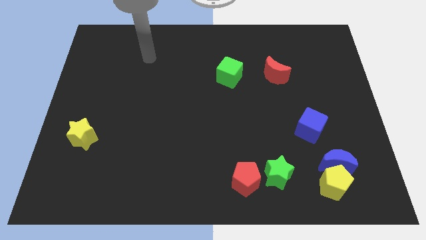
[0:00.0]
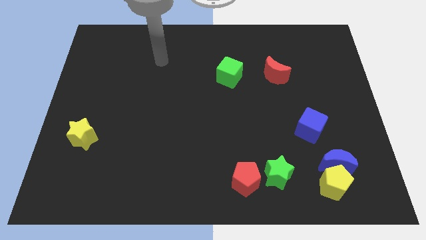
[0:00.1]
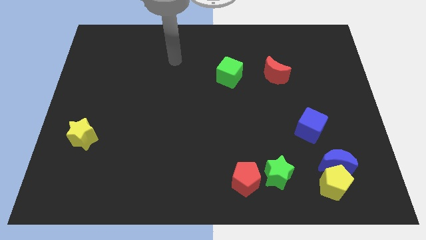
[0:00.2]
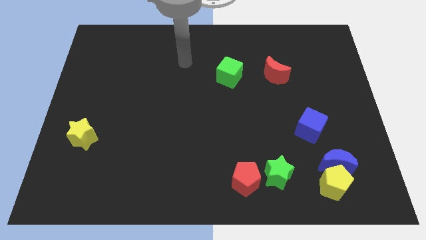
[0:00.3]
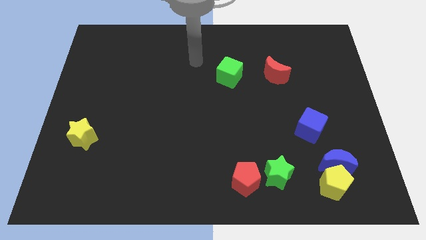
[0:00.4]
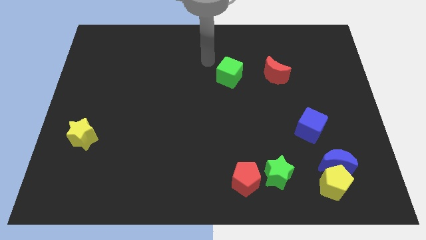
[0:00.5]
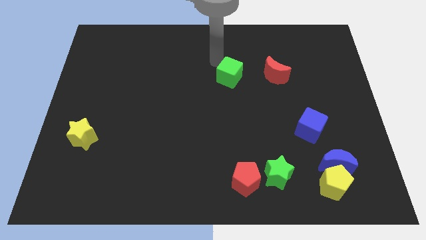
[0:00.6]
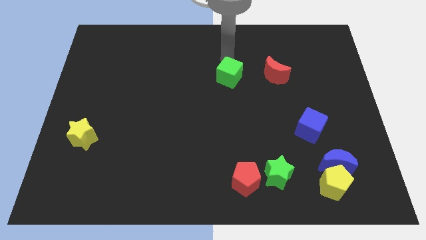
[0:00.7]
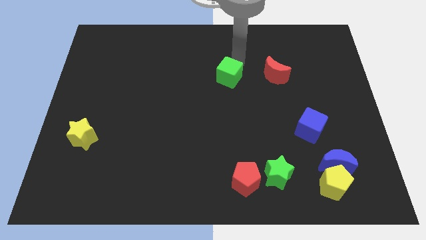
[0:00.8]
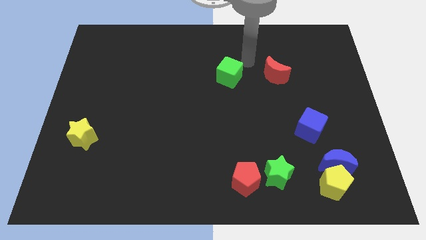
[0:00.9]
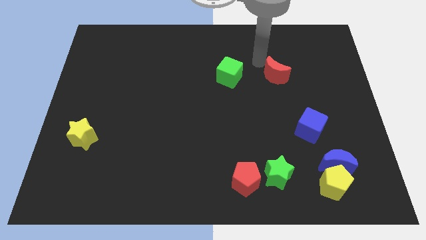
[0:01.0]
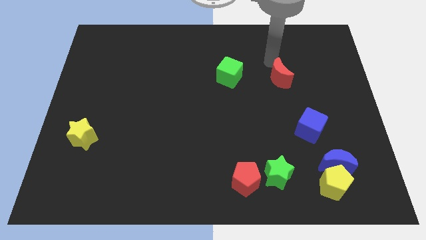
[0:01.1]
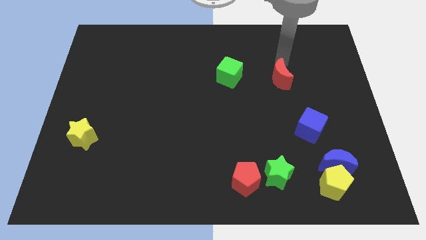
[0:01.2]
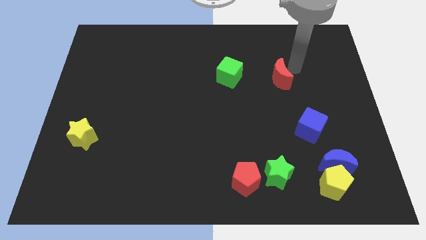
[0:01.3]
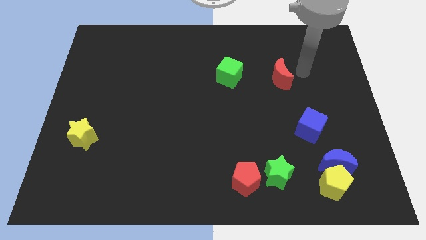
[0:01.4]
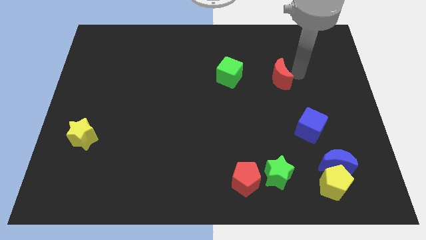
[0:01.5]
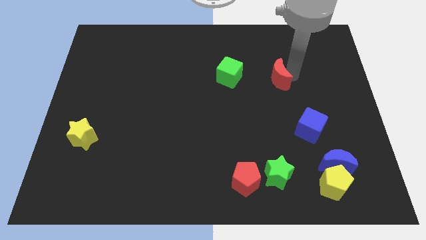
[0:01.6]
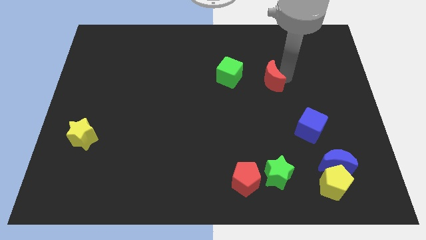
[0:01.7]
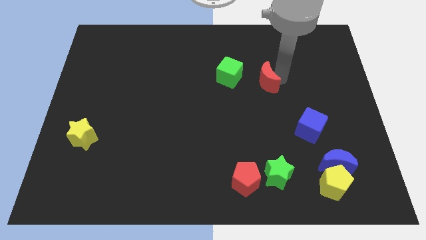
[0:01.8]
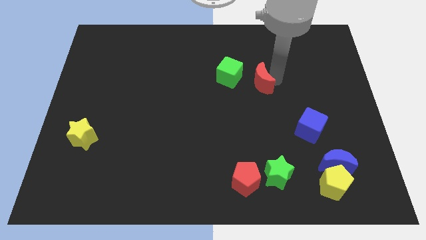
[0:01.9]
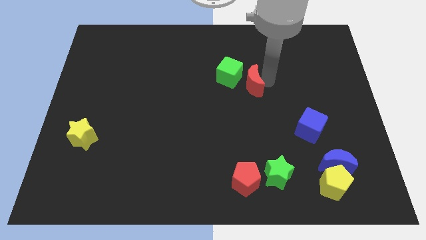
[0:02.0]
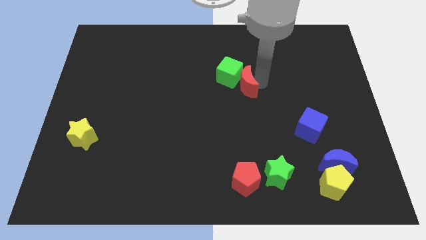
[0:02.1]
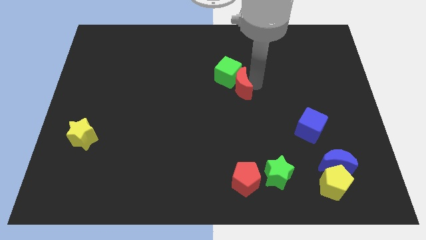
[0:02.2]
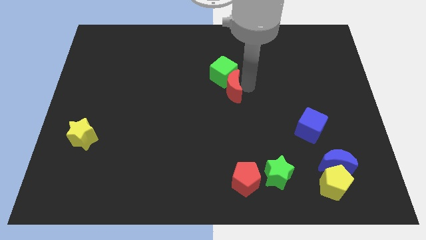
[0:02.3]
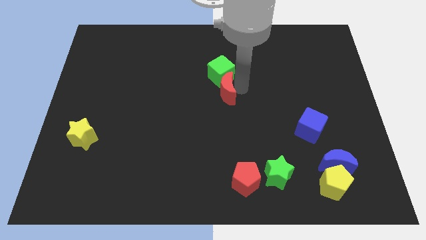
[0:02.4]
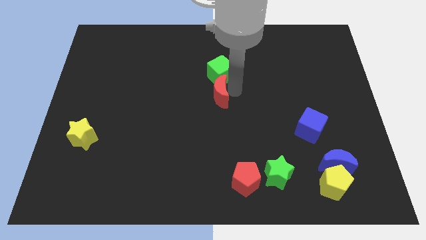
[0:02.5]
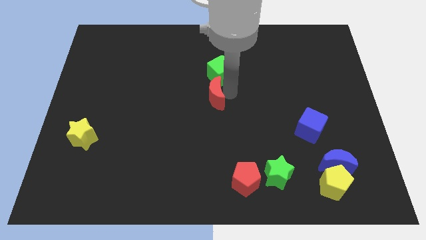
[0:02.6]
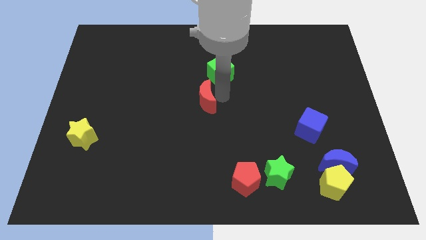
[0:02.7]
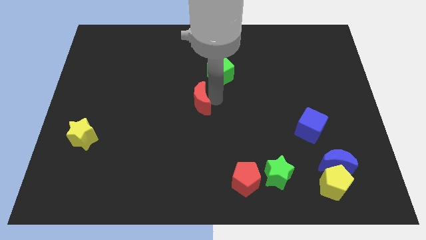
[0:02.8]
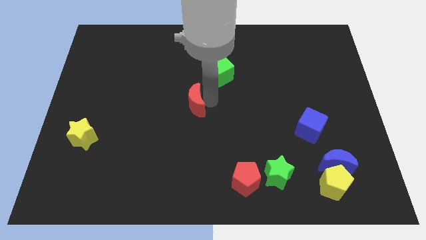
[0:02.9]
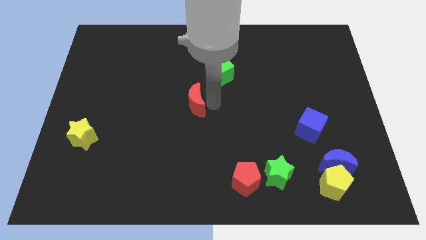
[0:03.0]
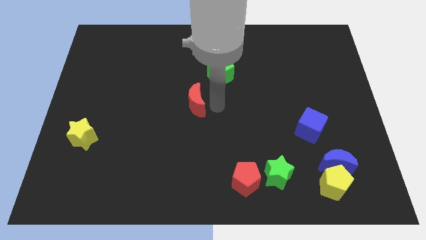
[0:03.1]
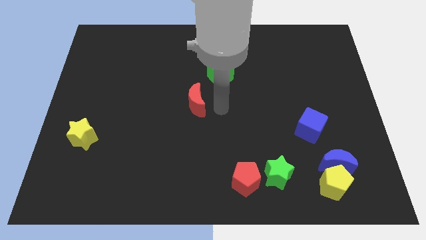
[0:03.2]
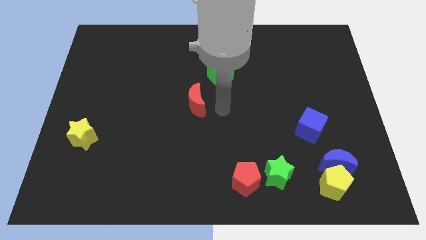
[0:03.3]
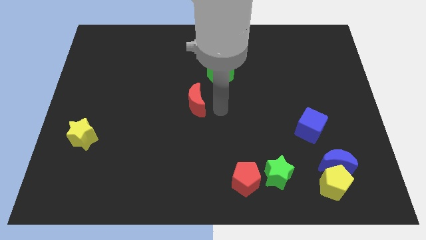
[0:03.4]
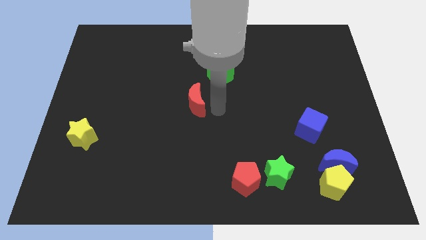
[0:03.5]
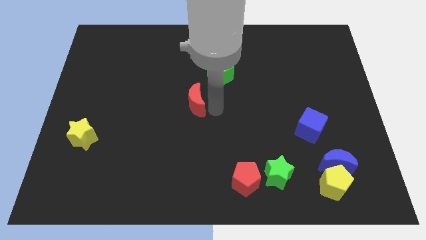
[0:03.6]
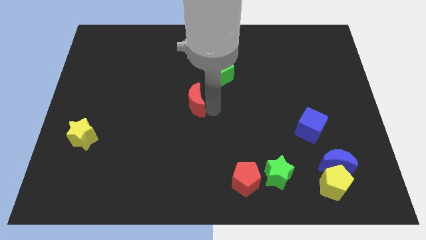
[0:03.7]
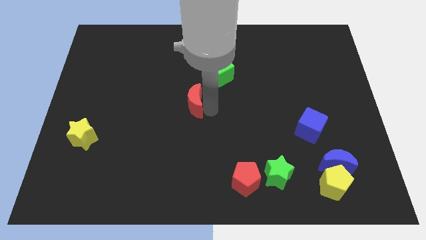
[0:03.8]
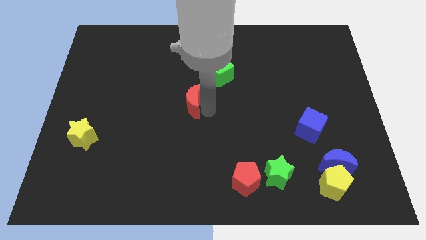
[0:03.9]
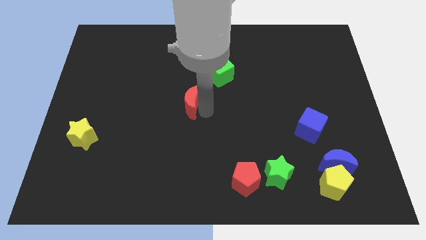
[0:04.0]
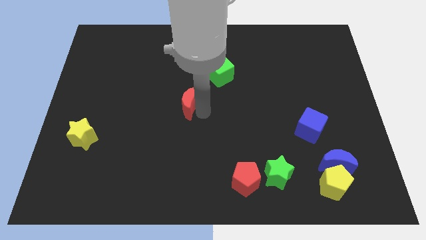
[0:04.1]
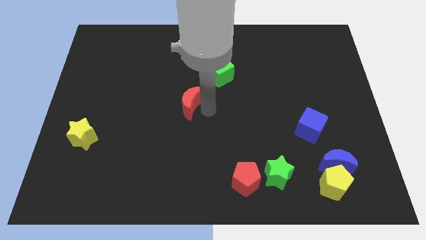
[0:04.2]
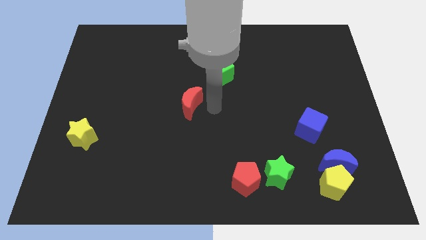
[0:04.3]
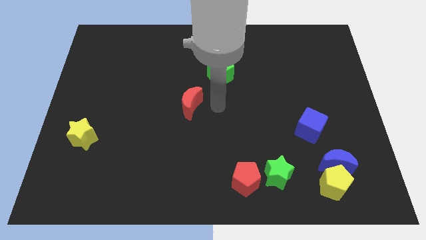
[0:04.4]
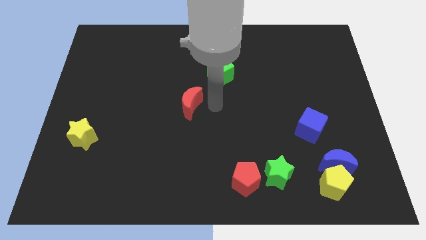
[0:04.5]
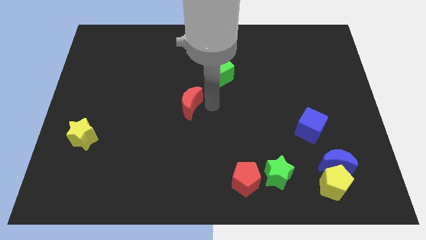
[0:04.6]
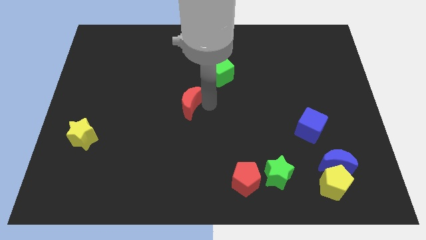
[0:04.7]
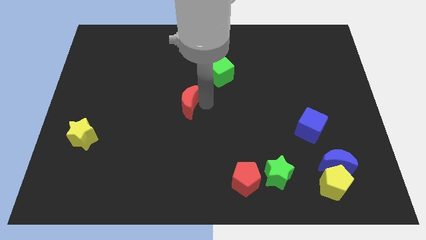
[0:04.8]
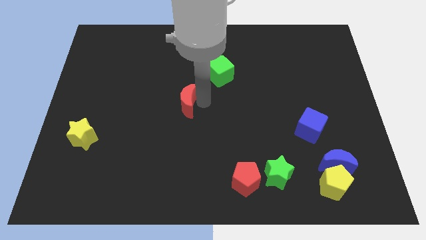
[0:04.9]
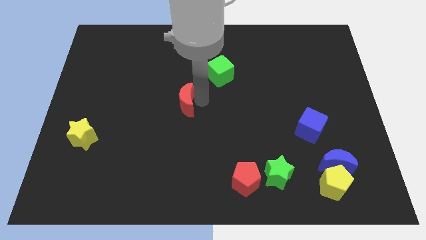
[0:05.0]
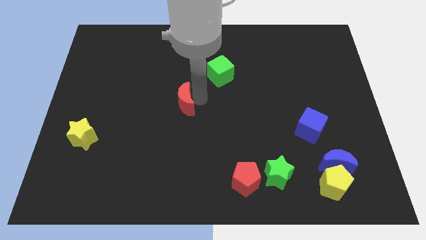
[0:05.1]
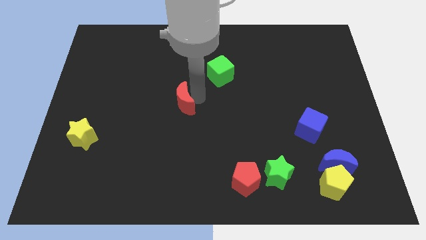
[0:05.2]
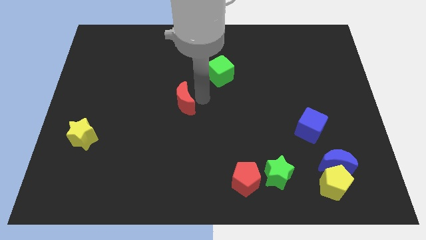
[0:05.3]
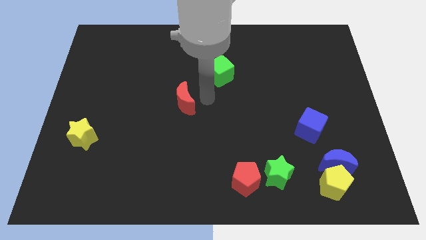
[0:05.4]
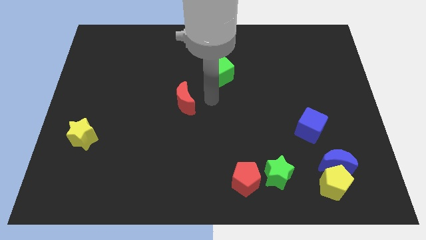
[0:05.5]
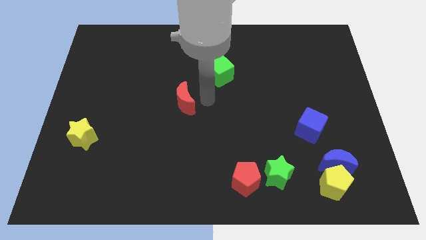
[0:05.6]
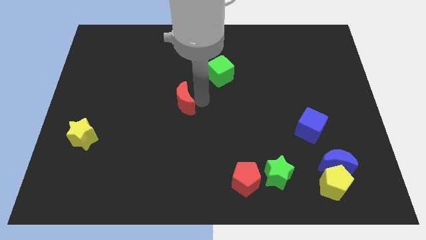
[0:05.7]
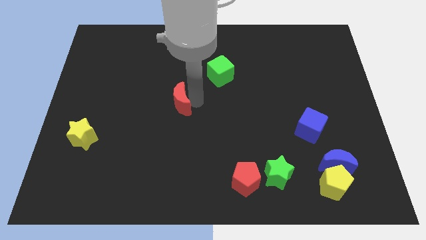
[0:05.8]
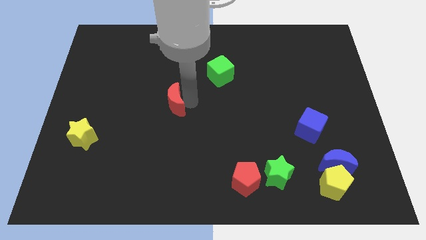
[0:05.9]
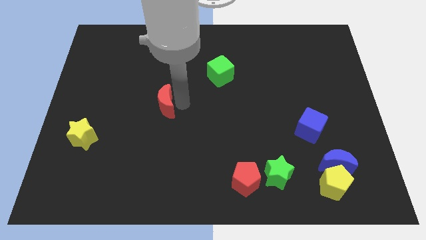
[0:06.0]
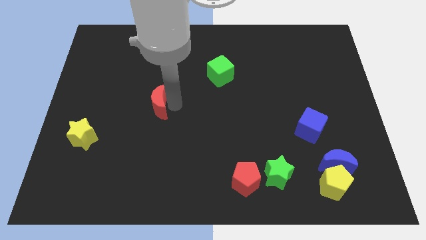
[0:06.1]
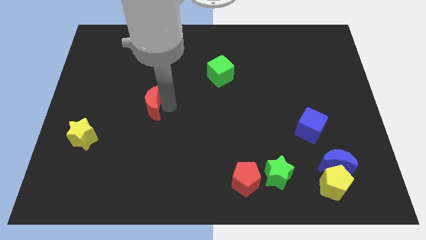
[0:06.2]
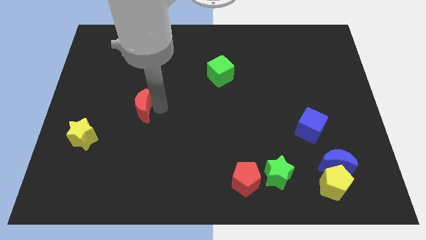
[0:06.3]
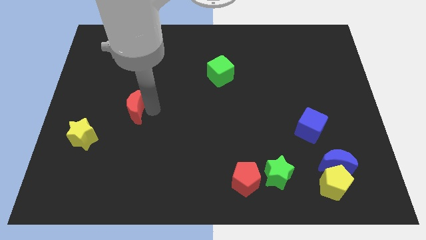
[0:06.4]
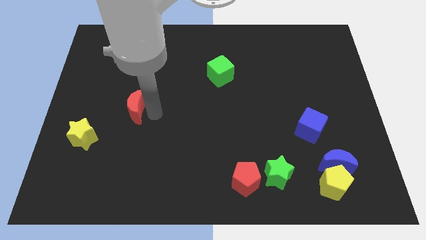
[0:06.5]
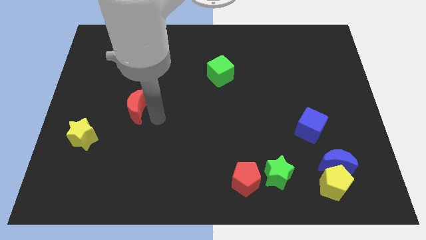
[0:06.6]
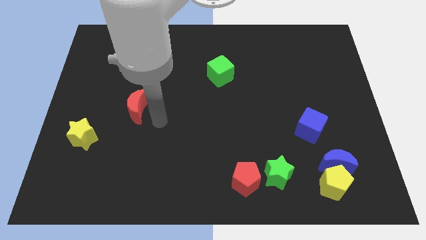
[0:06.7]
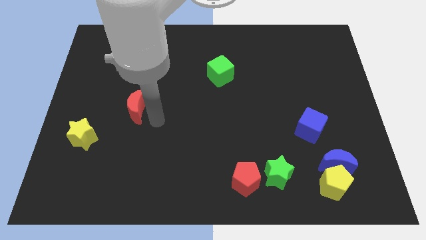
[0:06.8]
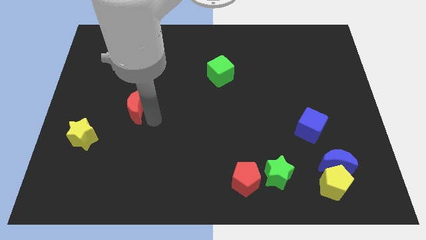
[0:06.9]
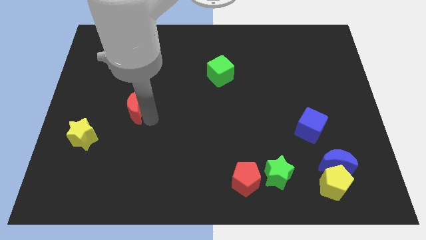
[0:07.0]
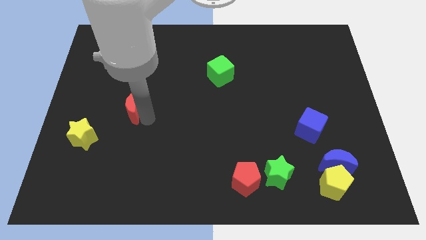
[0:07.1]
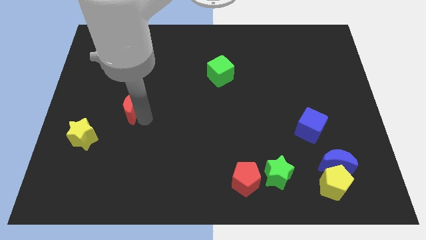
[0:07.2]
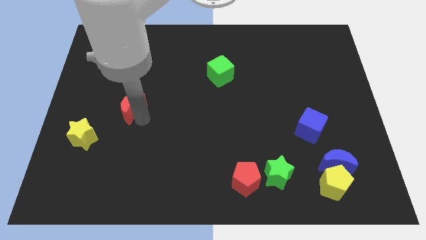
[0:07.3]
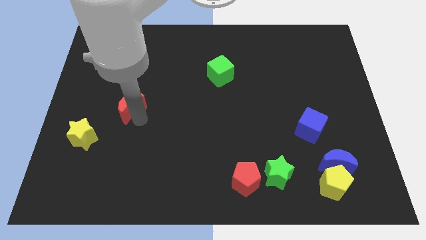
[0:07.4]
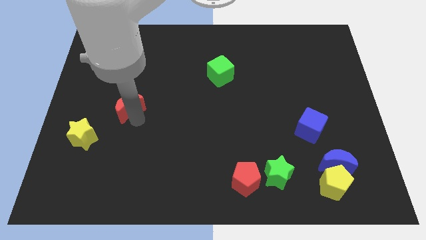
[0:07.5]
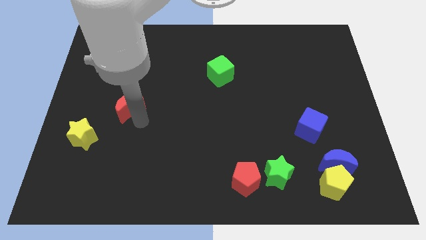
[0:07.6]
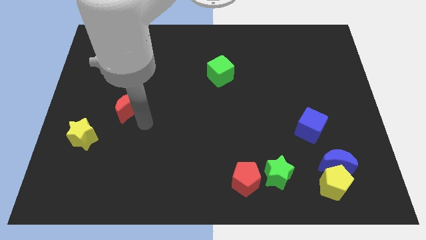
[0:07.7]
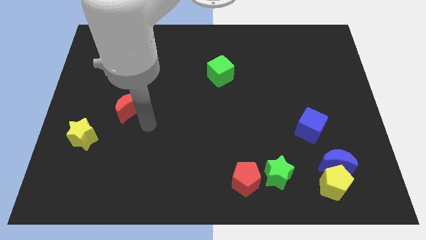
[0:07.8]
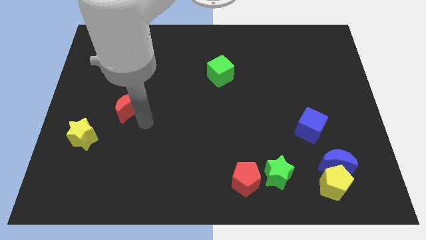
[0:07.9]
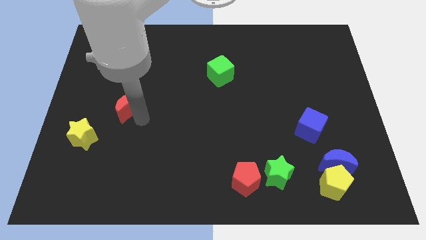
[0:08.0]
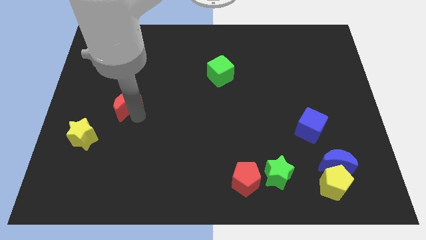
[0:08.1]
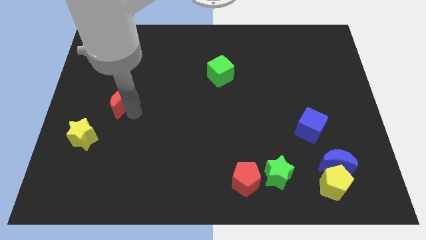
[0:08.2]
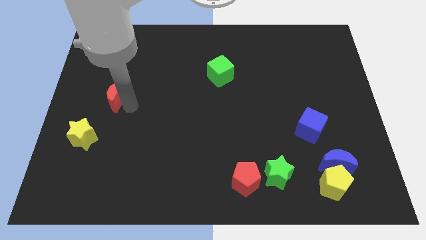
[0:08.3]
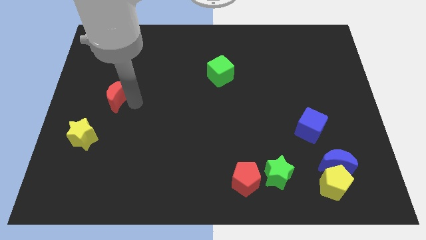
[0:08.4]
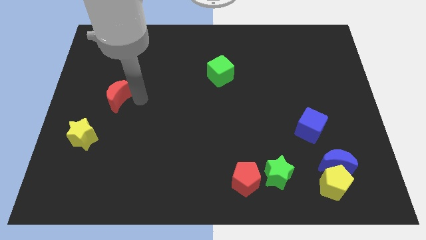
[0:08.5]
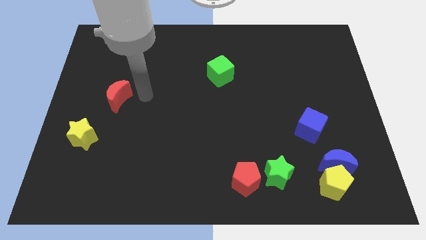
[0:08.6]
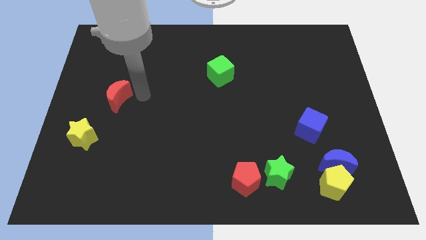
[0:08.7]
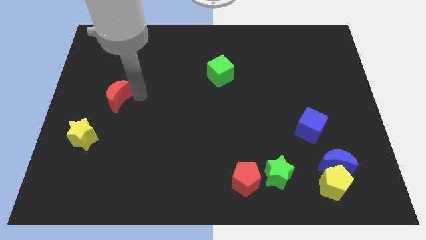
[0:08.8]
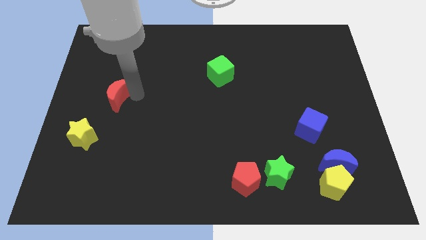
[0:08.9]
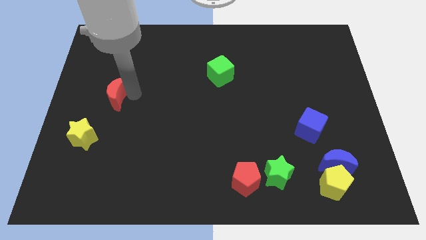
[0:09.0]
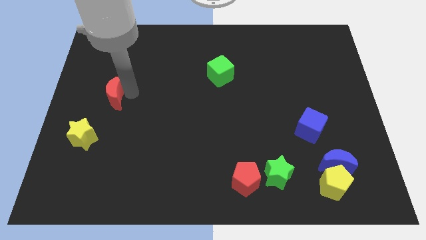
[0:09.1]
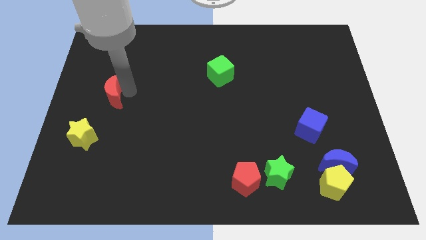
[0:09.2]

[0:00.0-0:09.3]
push the red moon above the yellow star
